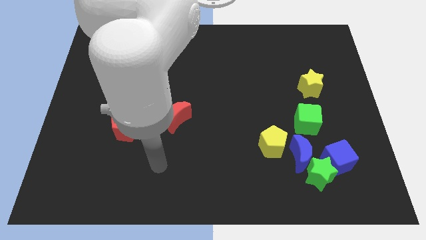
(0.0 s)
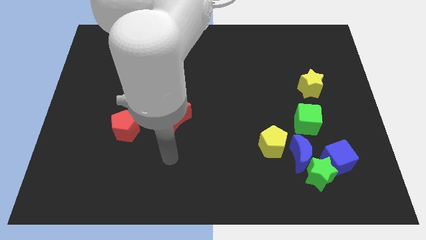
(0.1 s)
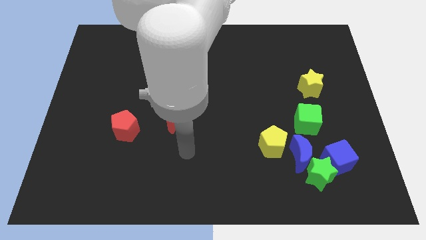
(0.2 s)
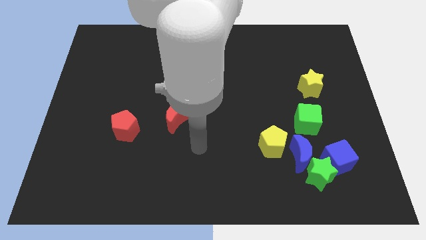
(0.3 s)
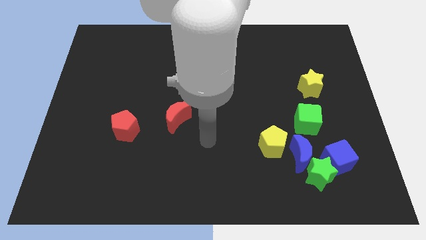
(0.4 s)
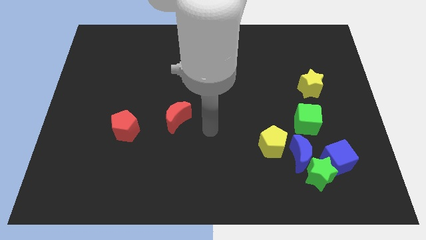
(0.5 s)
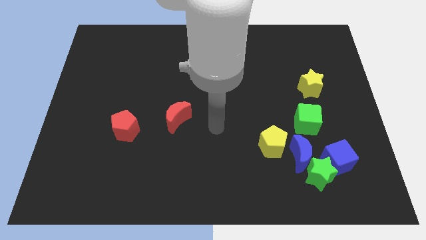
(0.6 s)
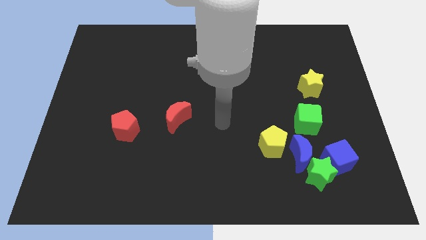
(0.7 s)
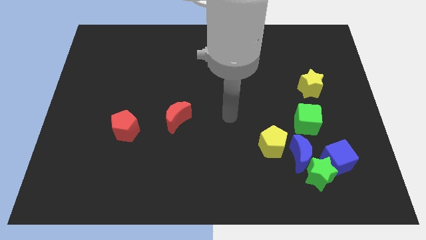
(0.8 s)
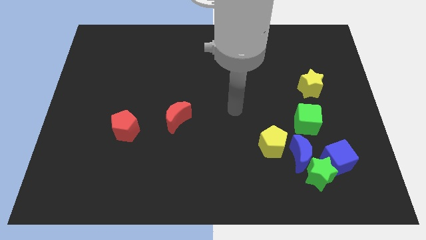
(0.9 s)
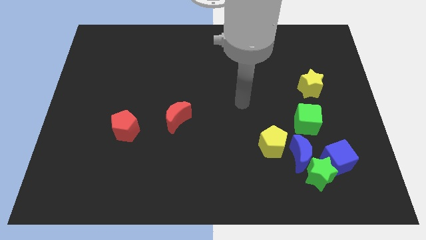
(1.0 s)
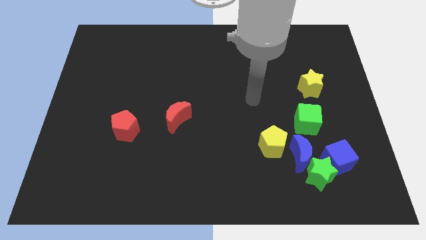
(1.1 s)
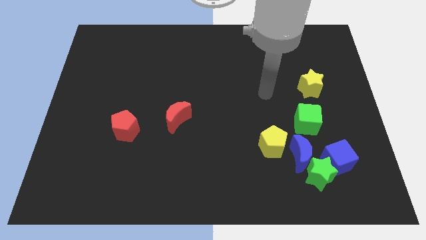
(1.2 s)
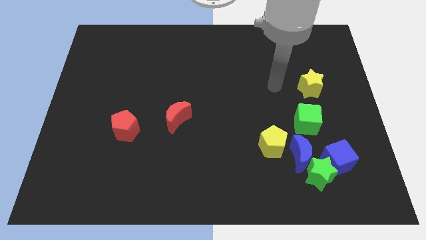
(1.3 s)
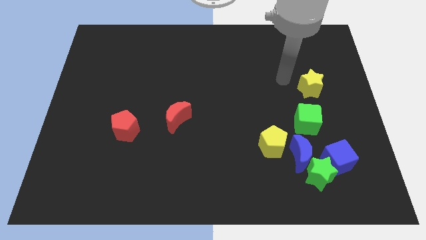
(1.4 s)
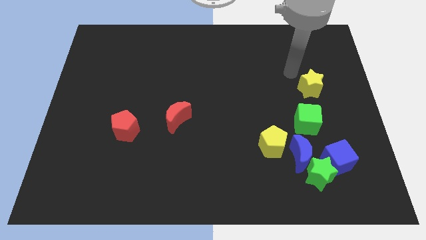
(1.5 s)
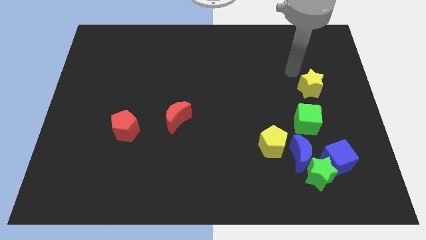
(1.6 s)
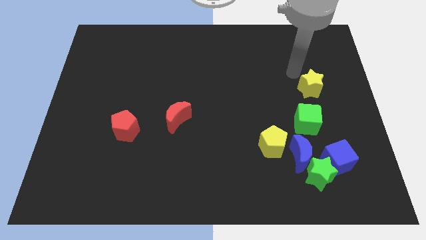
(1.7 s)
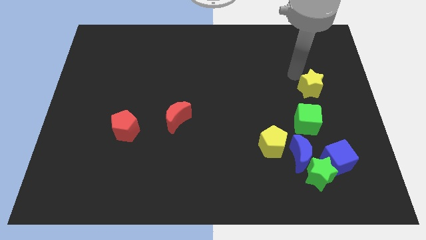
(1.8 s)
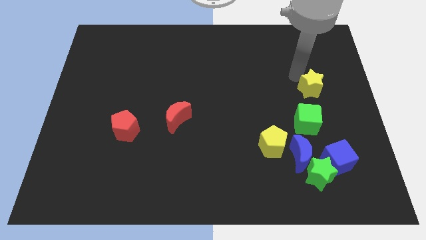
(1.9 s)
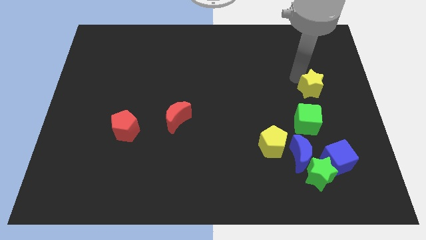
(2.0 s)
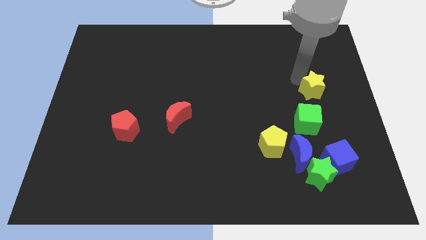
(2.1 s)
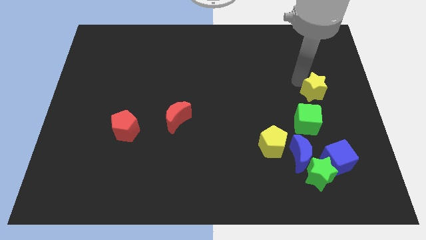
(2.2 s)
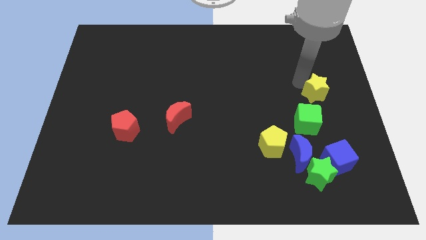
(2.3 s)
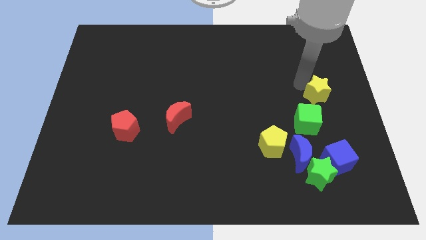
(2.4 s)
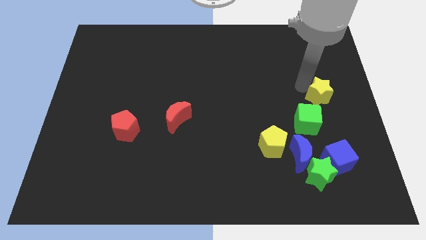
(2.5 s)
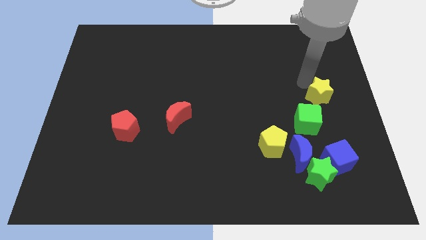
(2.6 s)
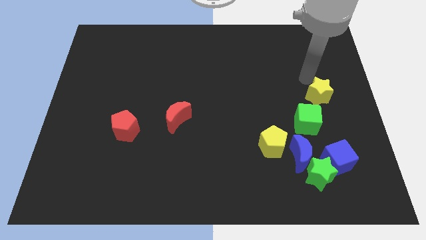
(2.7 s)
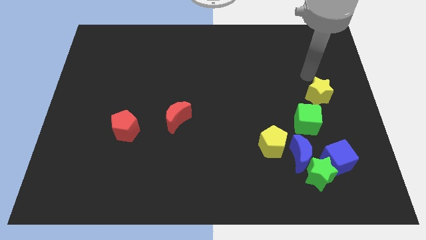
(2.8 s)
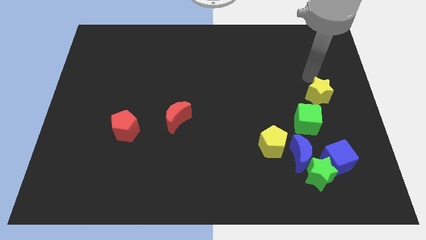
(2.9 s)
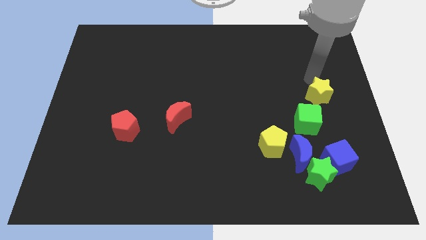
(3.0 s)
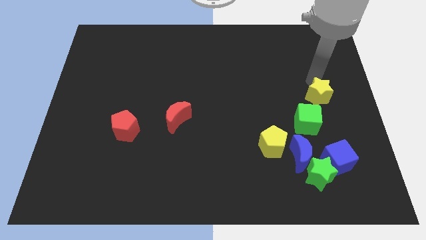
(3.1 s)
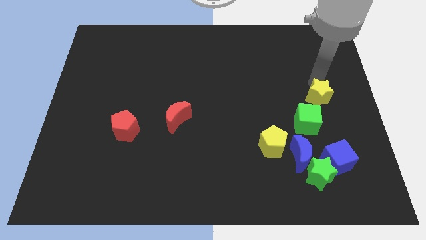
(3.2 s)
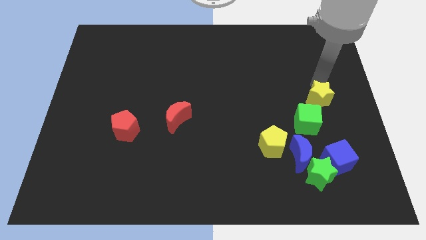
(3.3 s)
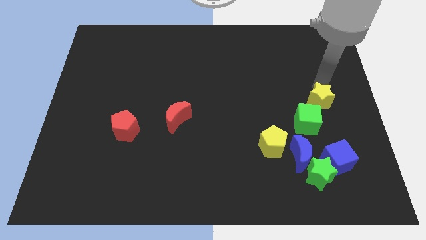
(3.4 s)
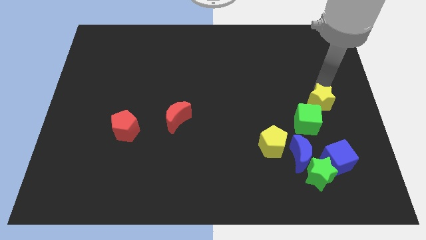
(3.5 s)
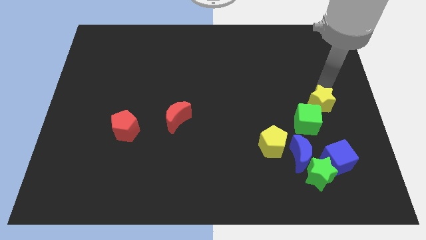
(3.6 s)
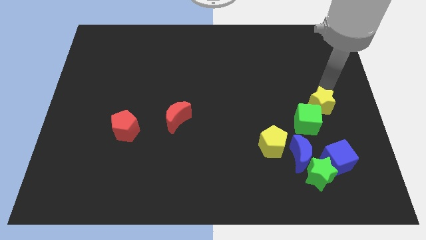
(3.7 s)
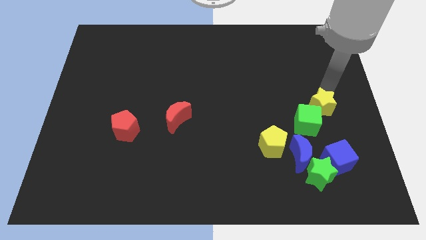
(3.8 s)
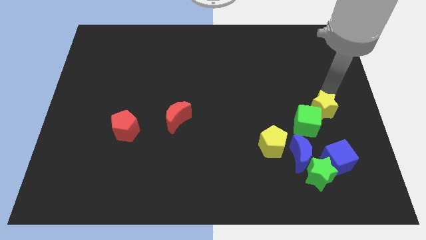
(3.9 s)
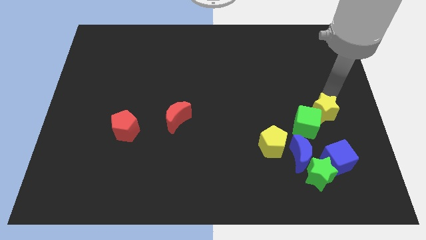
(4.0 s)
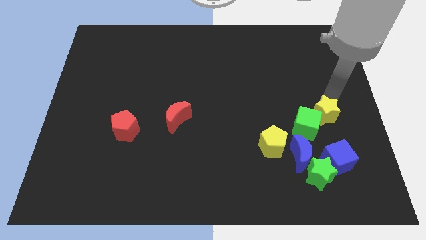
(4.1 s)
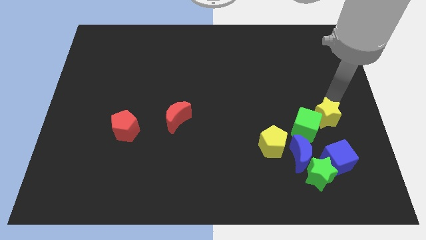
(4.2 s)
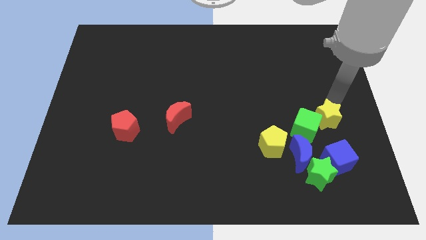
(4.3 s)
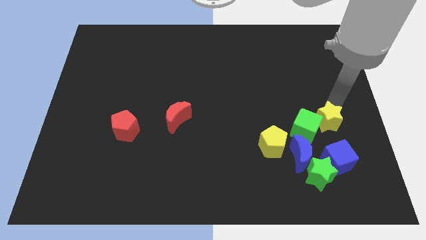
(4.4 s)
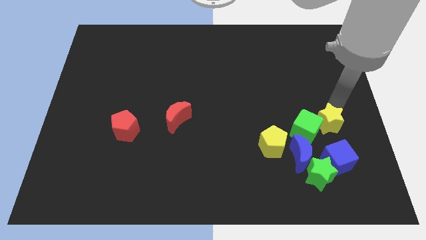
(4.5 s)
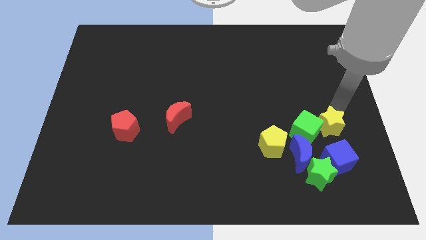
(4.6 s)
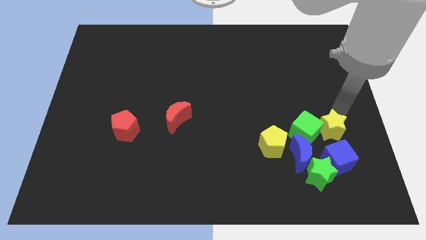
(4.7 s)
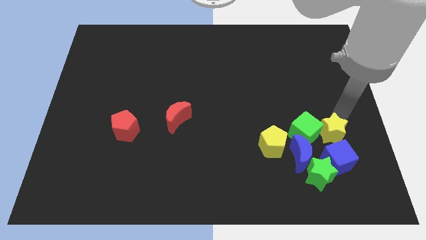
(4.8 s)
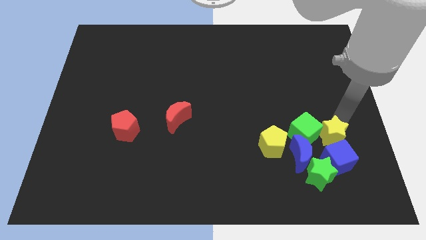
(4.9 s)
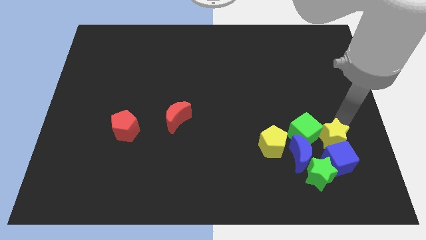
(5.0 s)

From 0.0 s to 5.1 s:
push the yellow star towards the blue cube

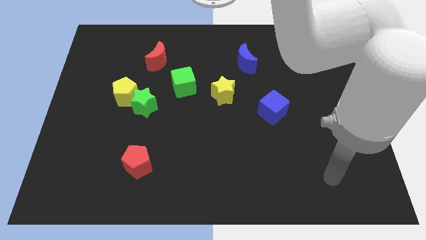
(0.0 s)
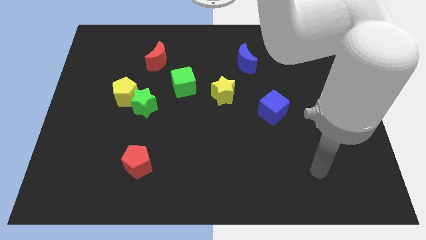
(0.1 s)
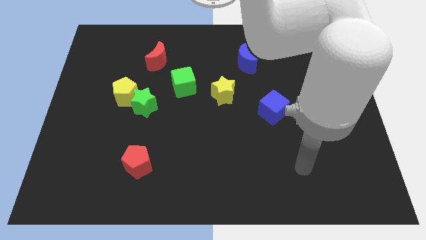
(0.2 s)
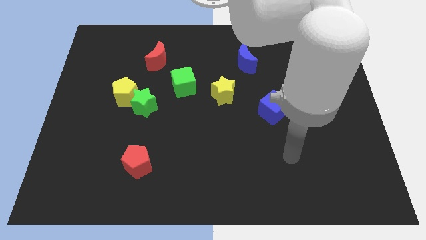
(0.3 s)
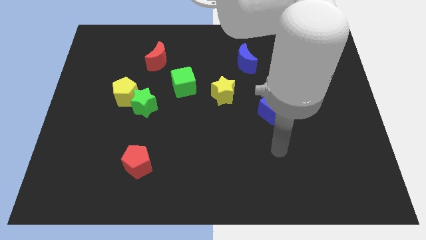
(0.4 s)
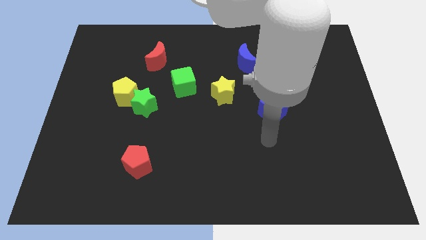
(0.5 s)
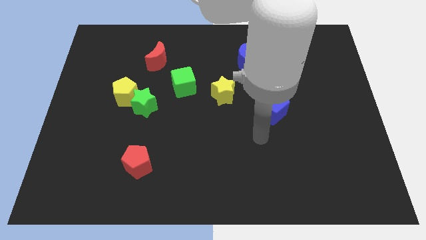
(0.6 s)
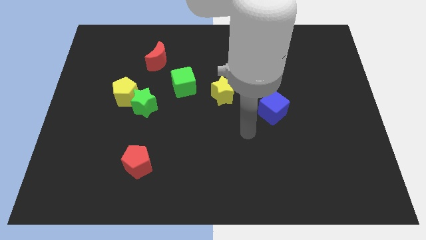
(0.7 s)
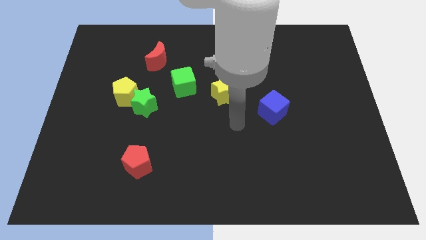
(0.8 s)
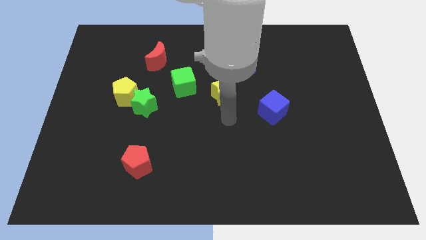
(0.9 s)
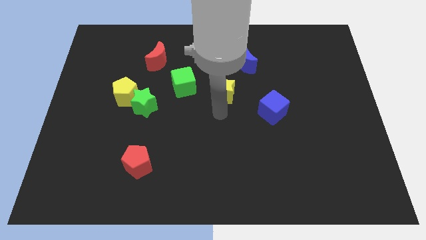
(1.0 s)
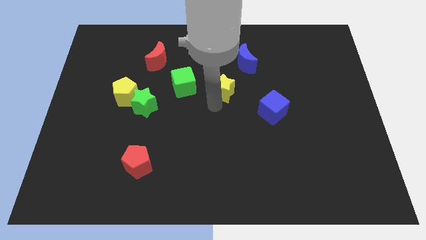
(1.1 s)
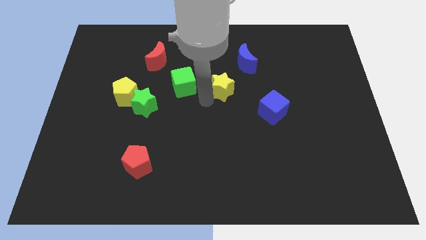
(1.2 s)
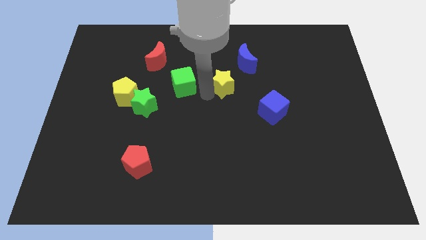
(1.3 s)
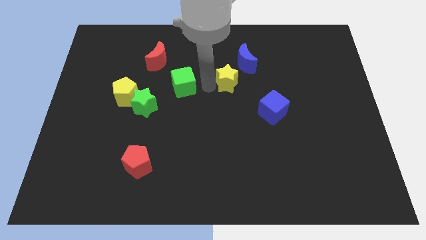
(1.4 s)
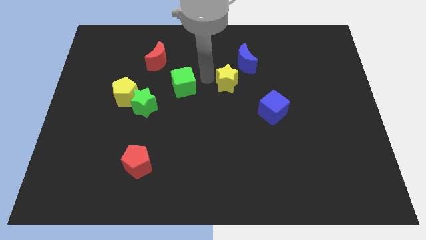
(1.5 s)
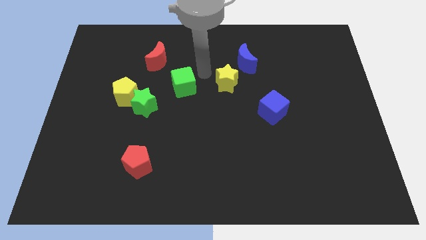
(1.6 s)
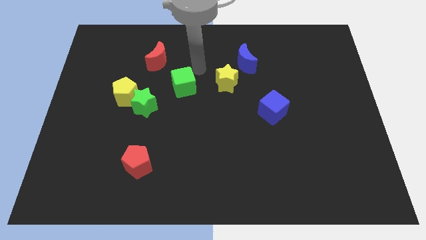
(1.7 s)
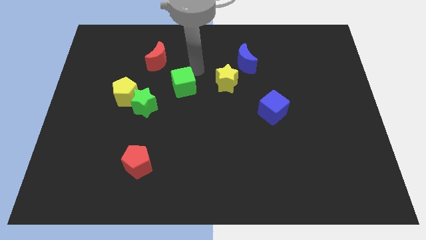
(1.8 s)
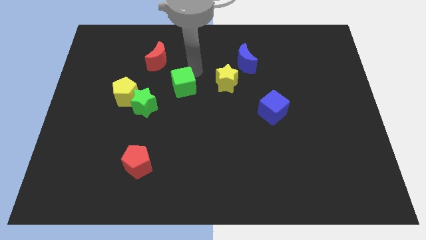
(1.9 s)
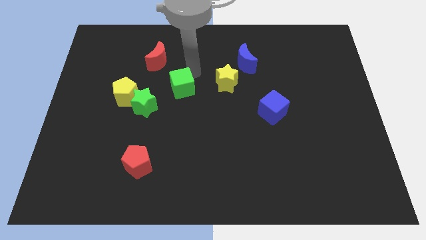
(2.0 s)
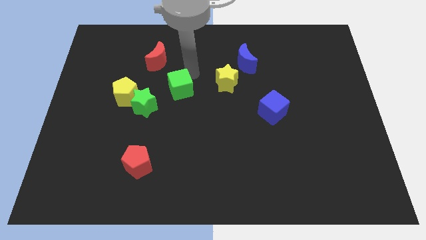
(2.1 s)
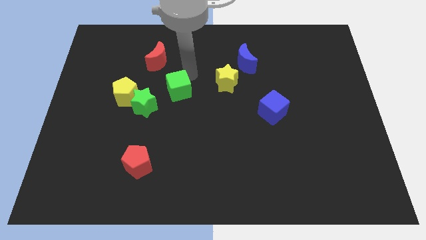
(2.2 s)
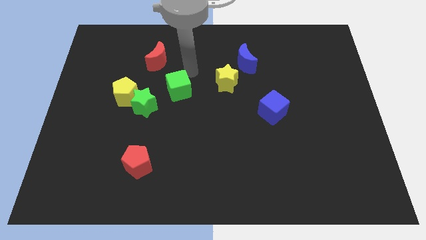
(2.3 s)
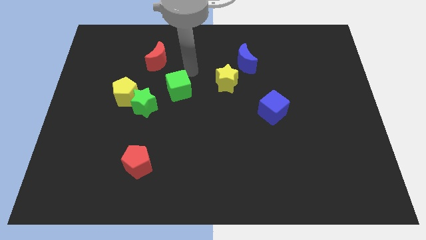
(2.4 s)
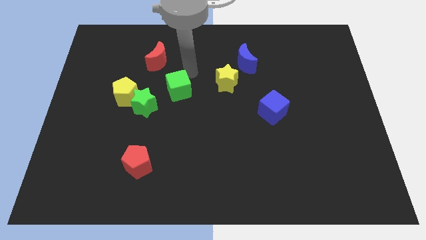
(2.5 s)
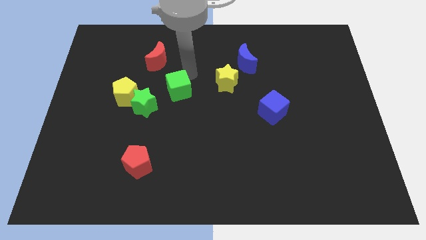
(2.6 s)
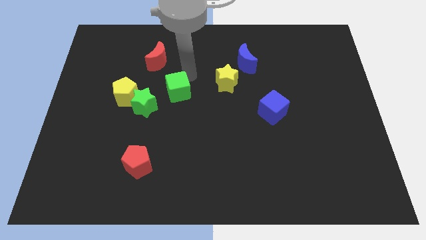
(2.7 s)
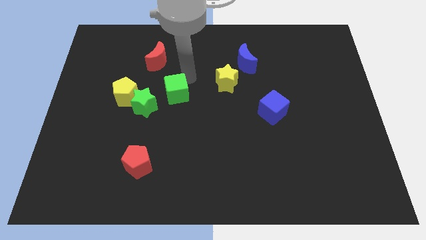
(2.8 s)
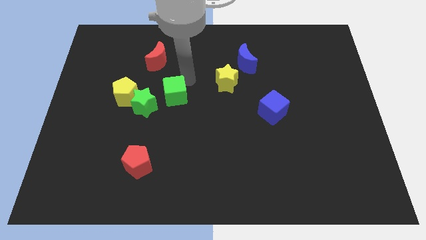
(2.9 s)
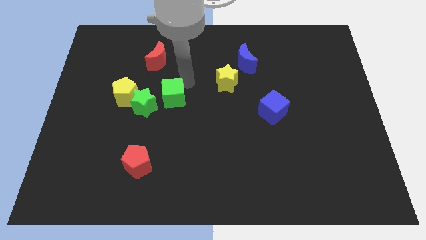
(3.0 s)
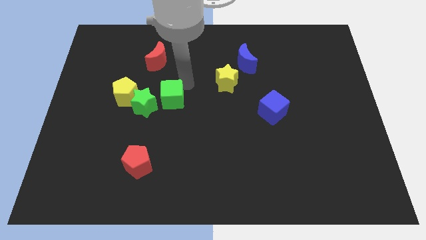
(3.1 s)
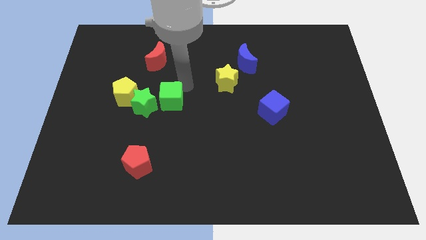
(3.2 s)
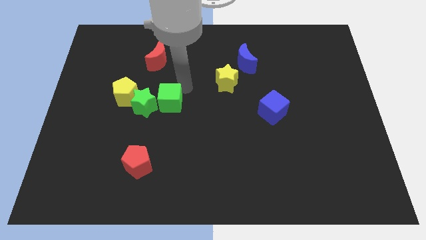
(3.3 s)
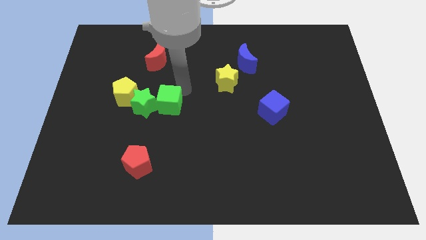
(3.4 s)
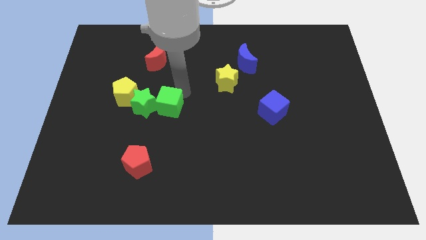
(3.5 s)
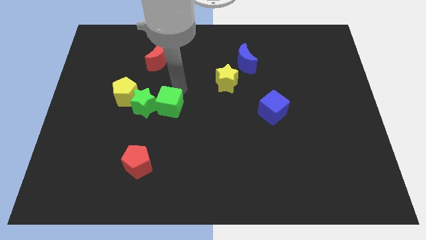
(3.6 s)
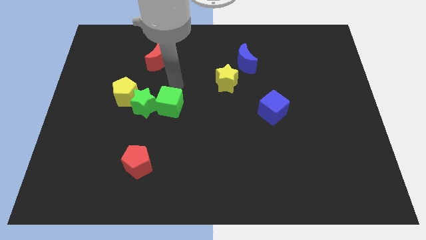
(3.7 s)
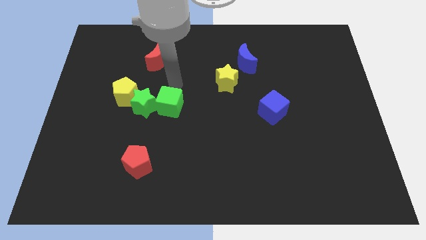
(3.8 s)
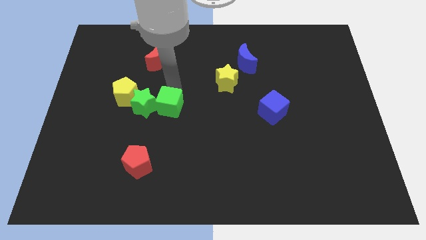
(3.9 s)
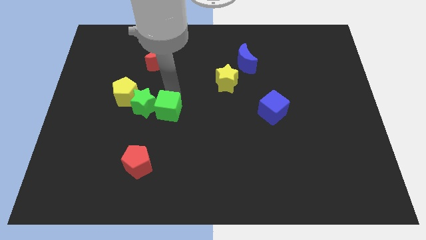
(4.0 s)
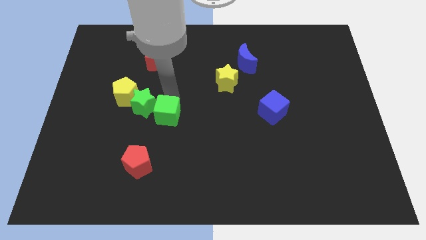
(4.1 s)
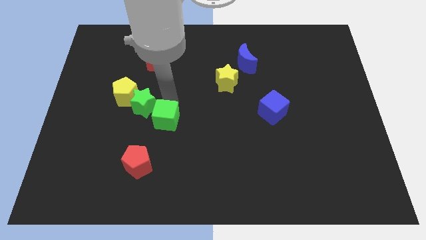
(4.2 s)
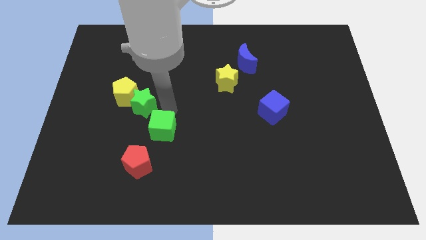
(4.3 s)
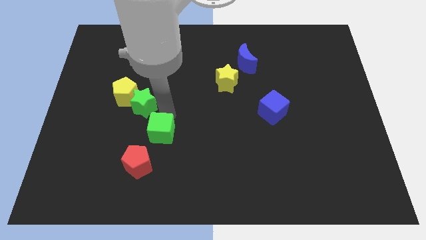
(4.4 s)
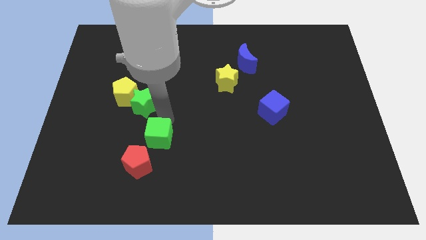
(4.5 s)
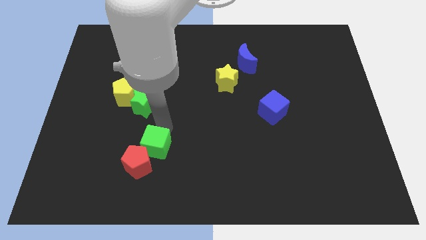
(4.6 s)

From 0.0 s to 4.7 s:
move the green cube close to the red pentagon
